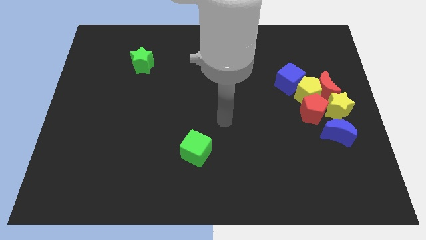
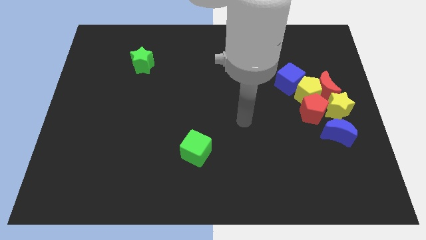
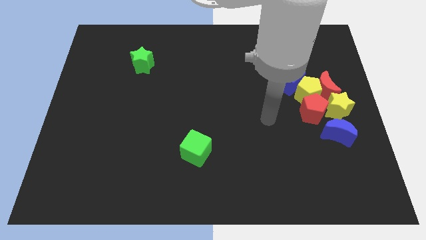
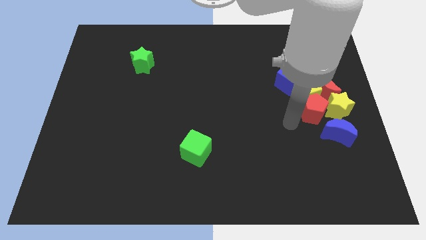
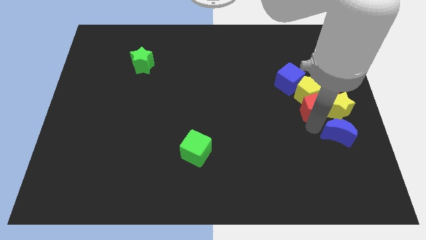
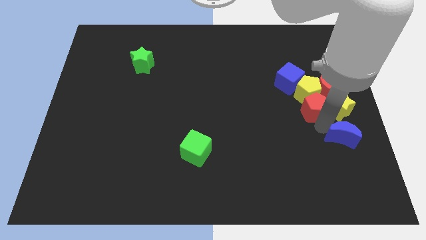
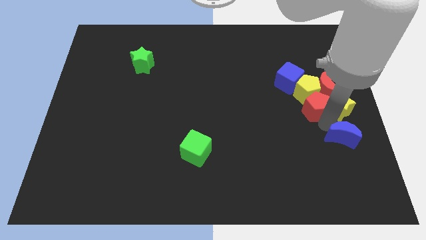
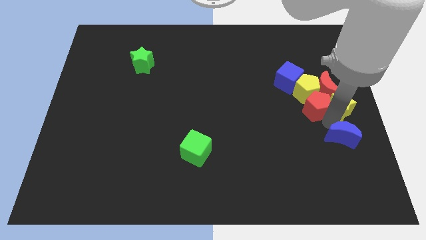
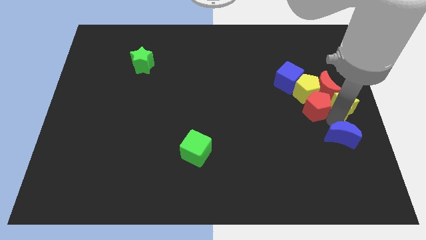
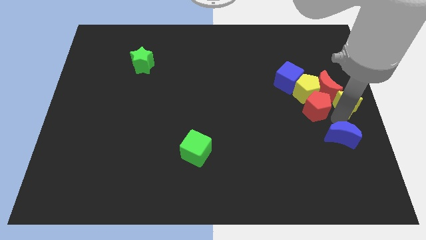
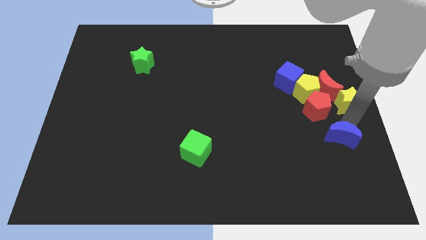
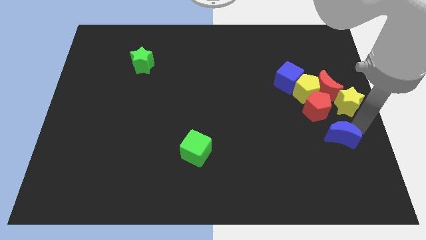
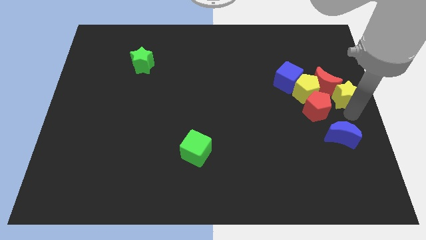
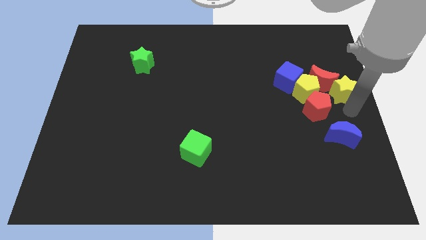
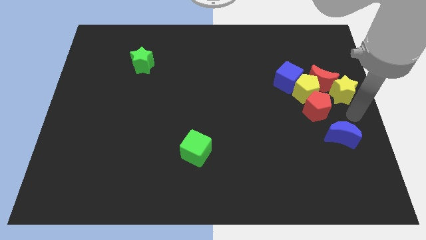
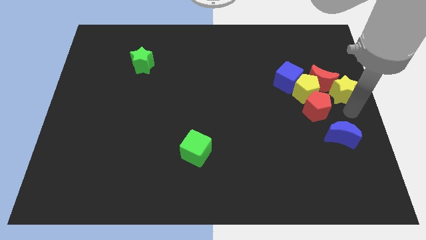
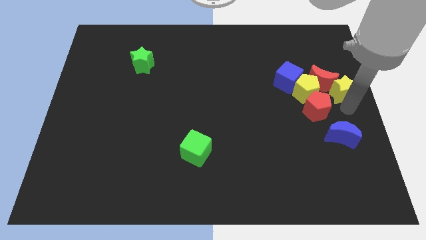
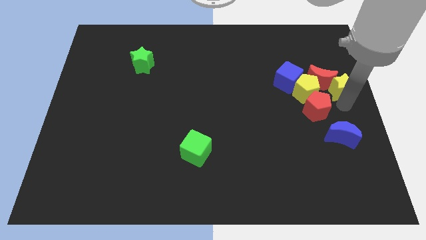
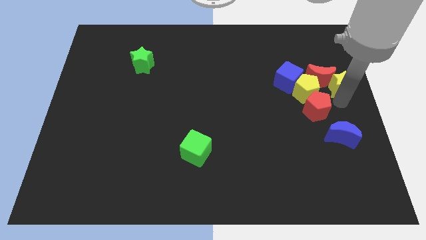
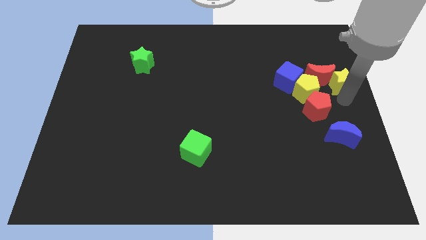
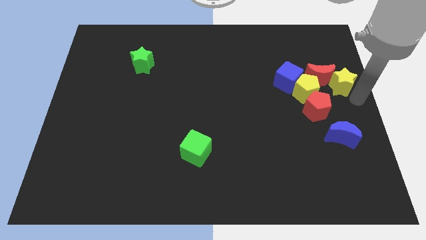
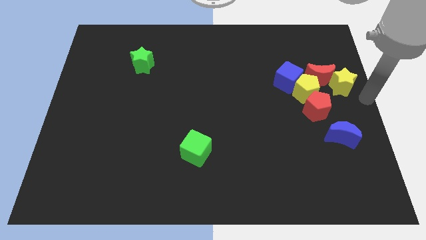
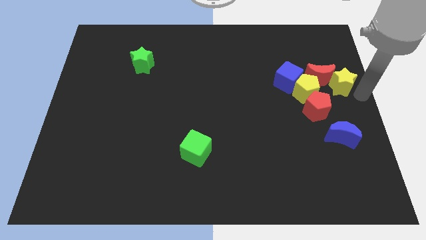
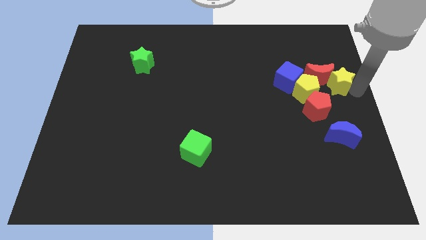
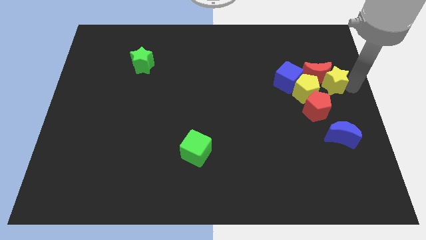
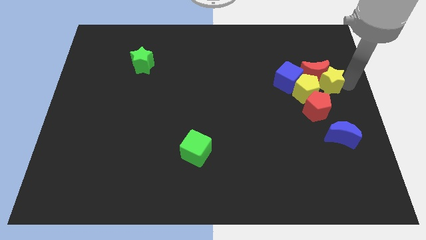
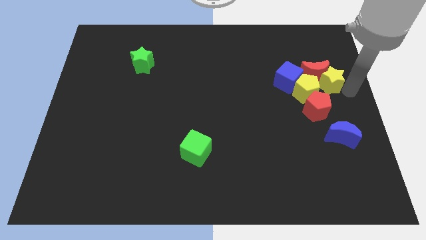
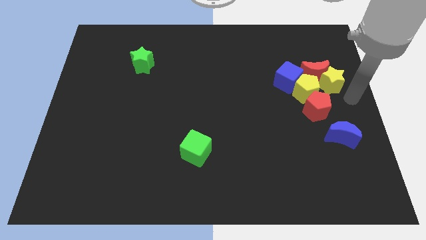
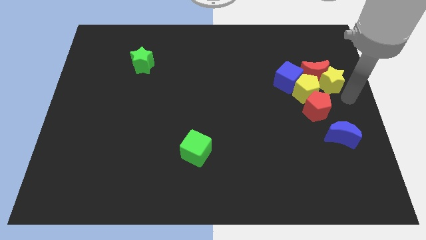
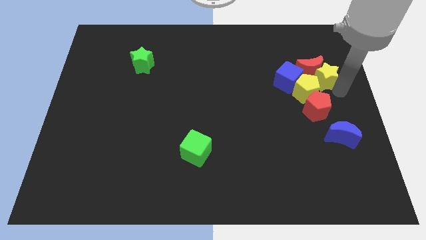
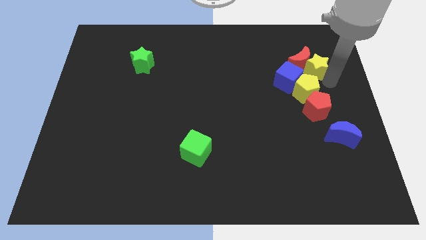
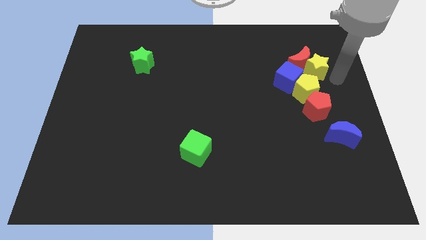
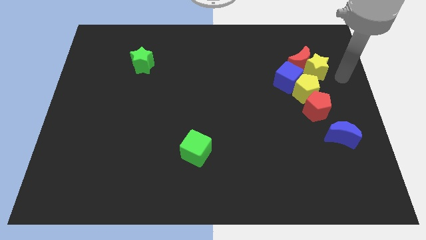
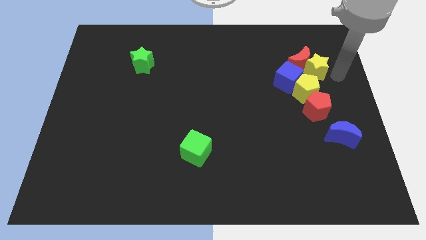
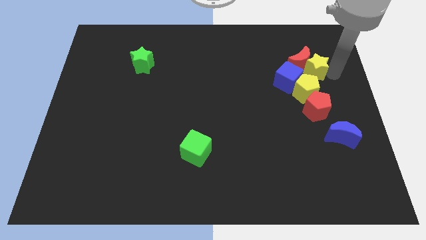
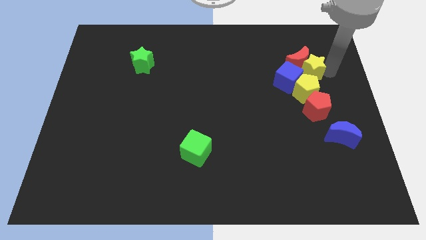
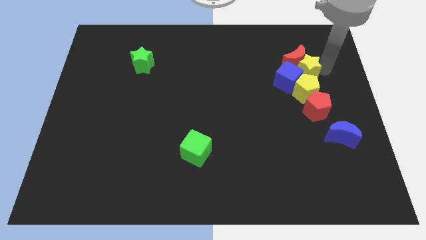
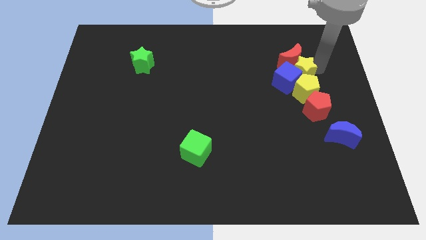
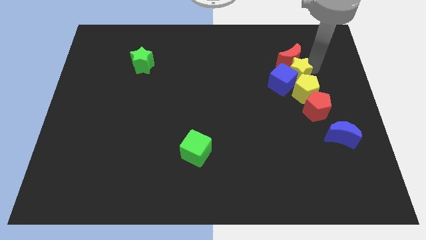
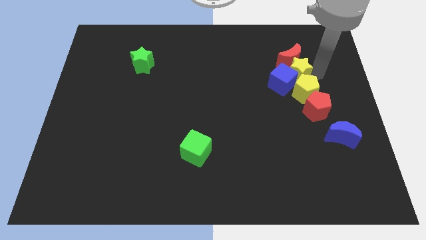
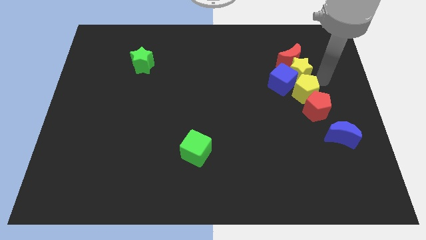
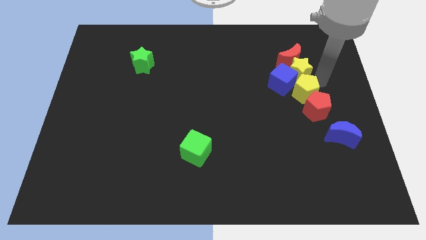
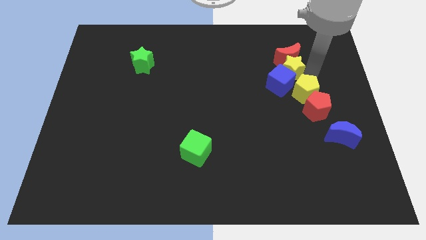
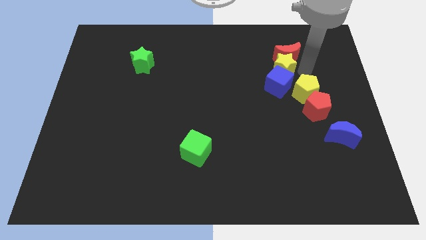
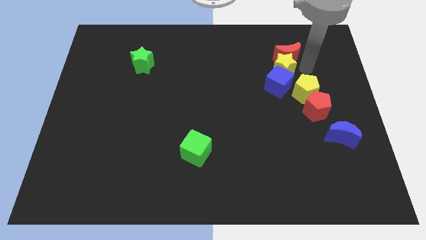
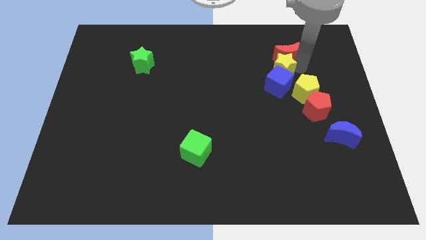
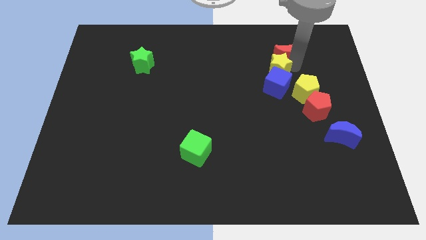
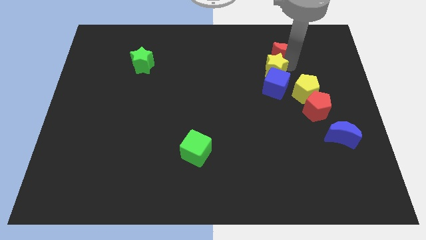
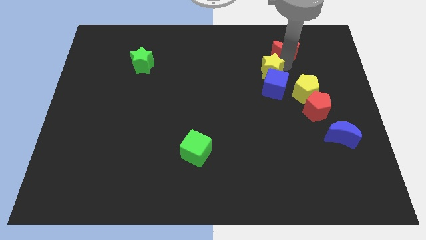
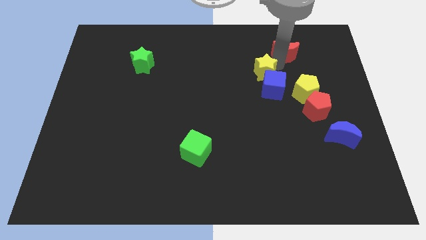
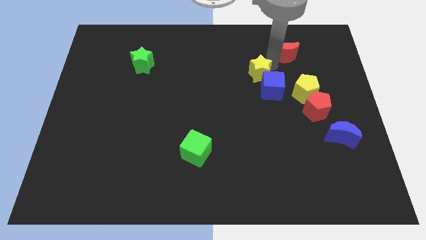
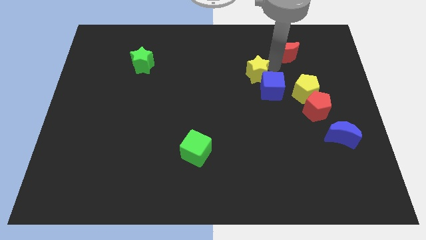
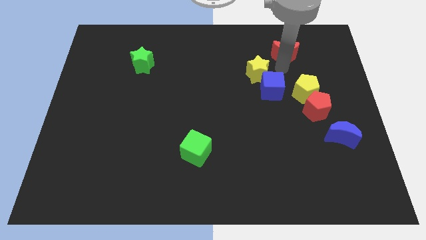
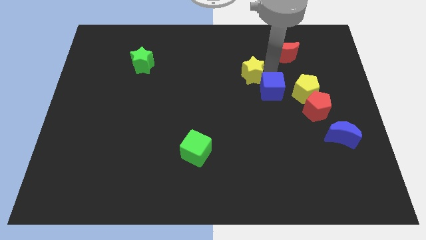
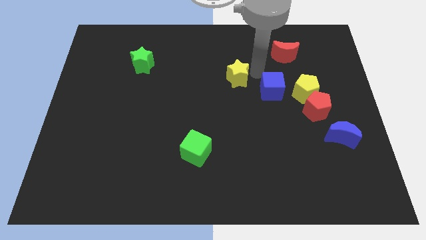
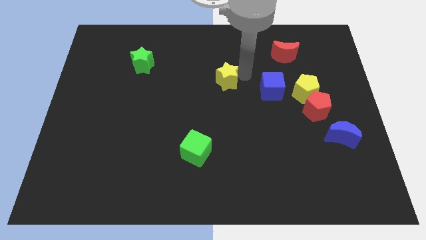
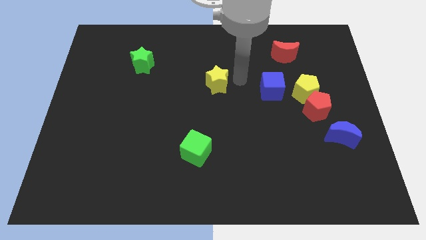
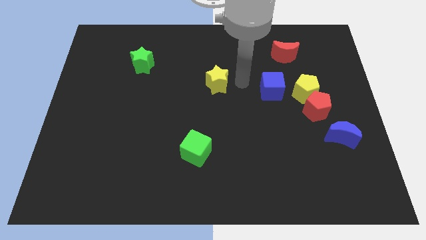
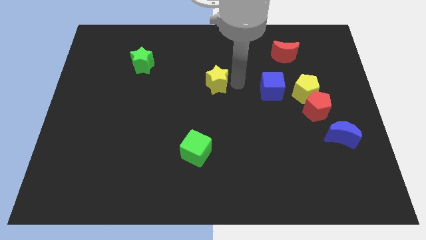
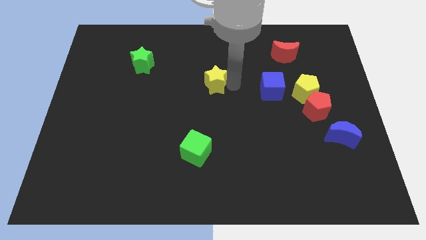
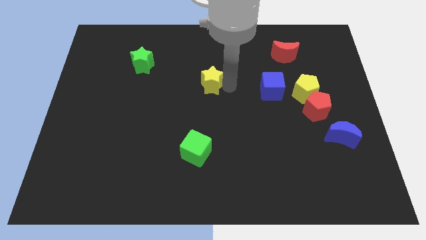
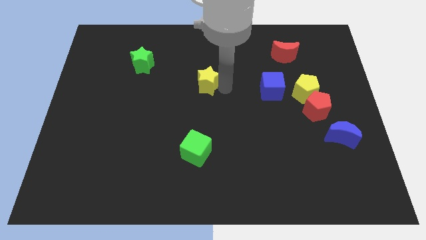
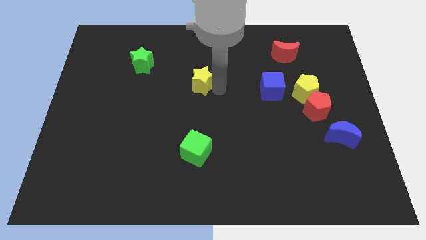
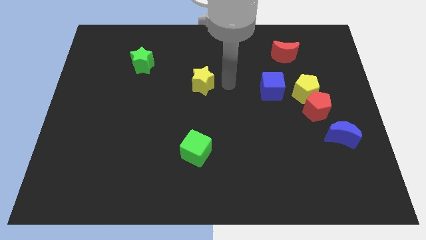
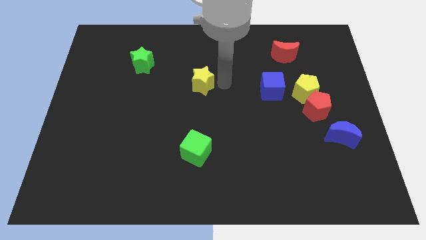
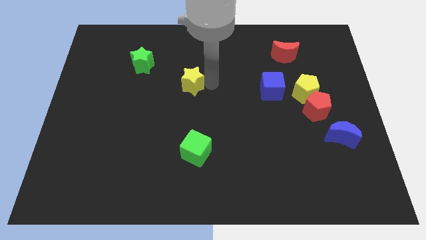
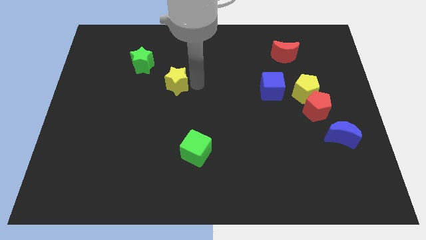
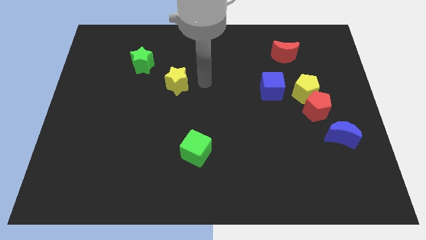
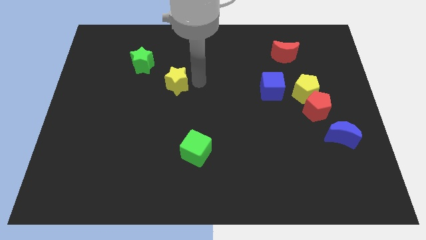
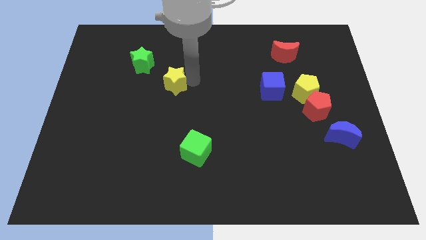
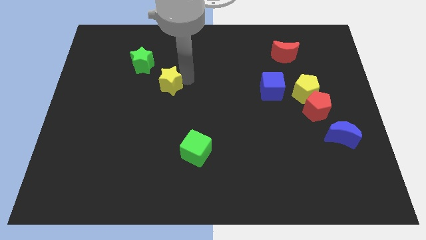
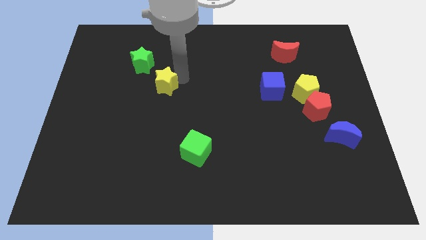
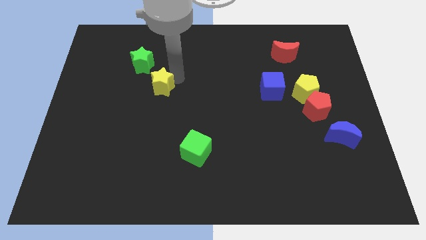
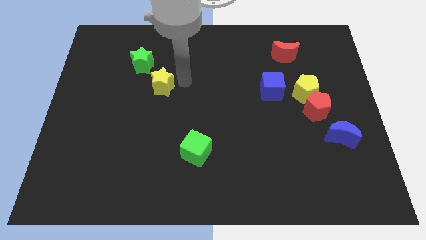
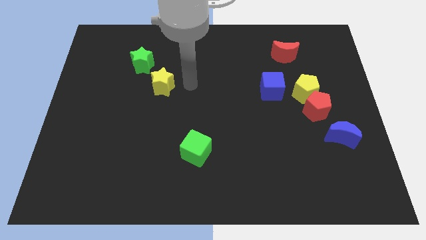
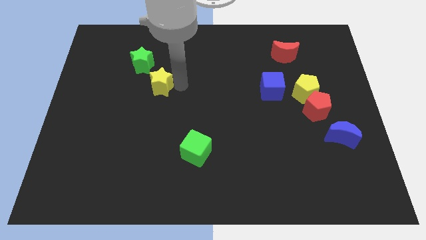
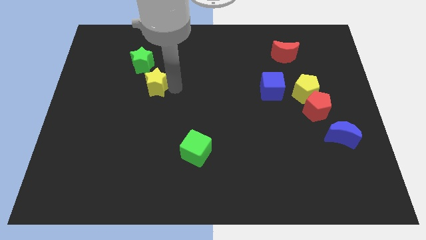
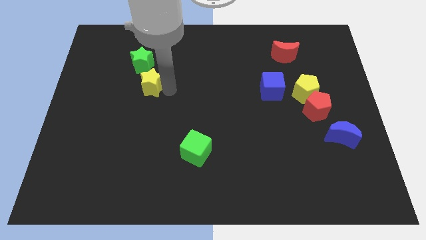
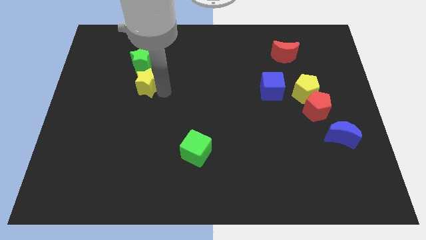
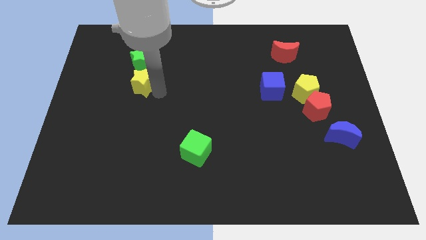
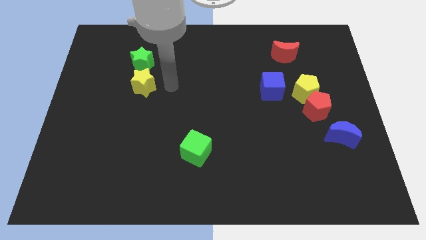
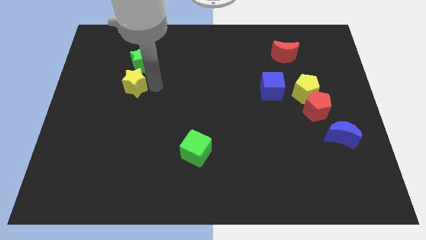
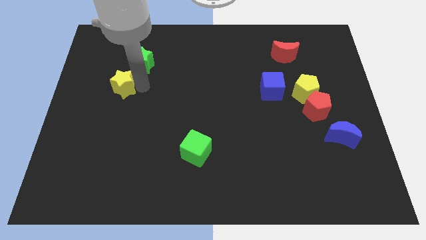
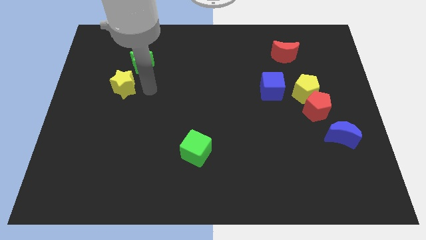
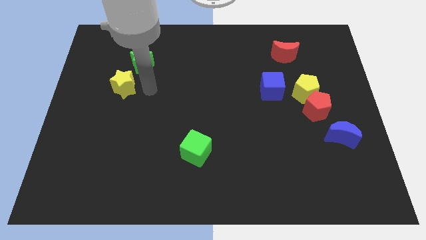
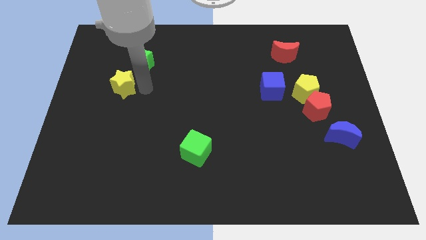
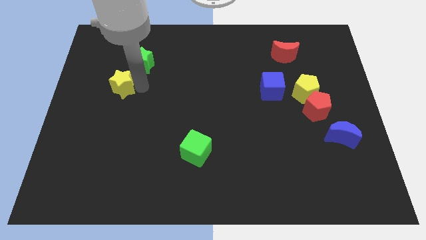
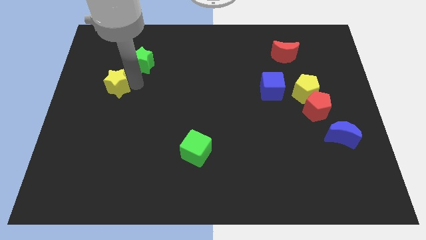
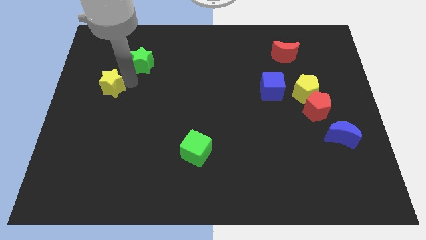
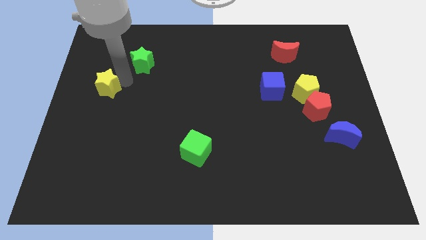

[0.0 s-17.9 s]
slide the yellow star to the left side
